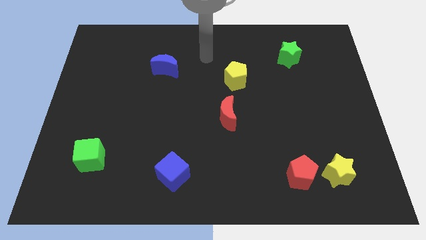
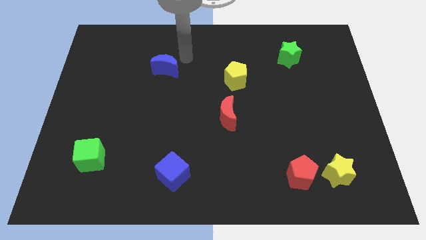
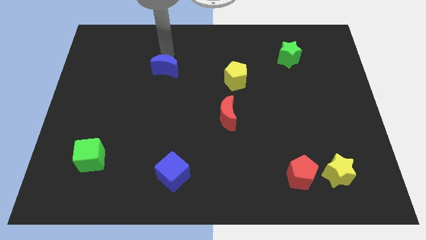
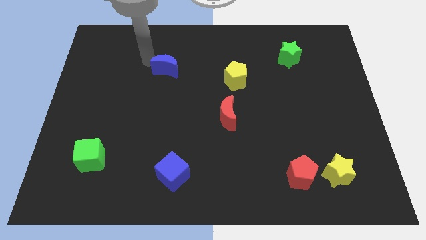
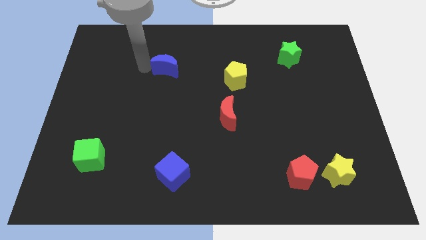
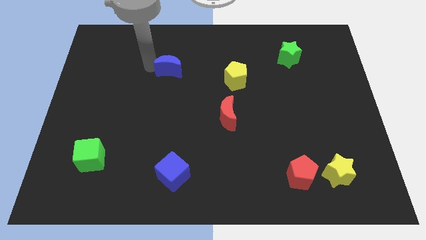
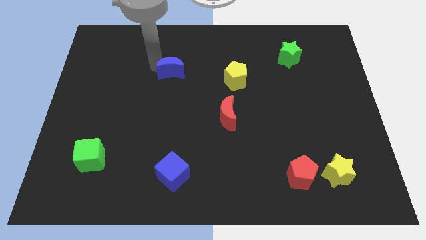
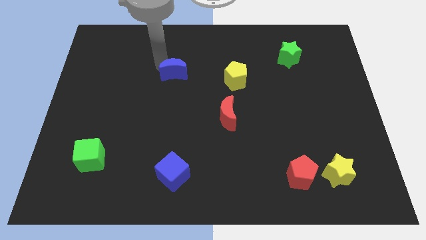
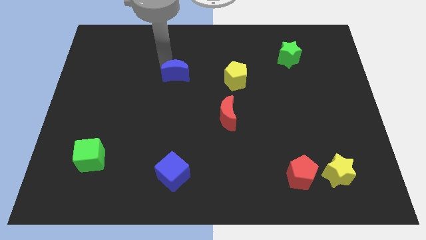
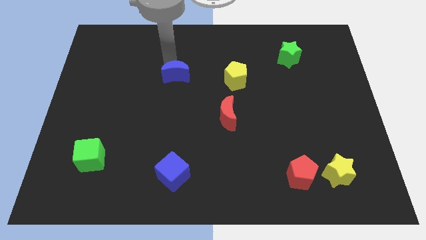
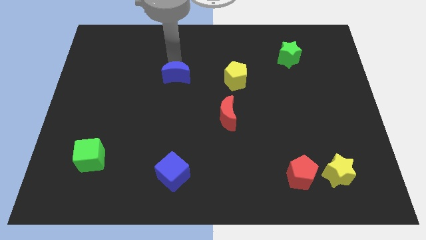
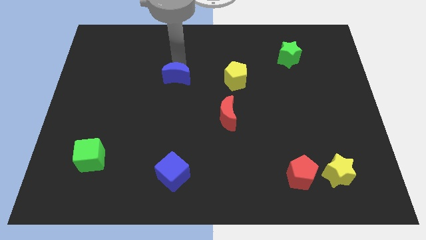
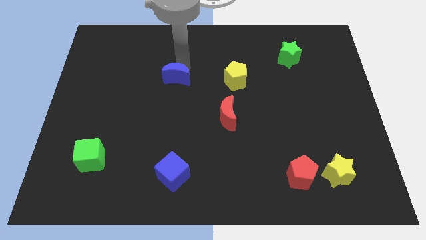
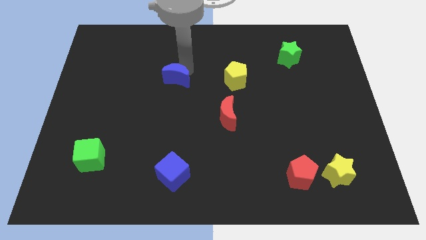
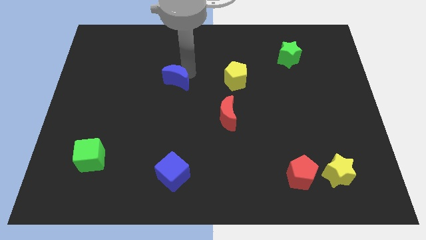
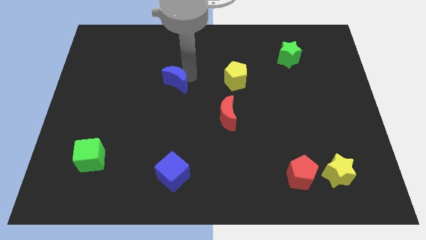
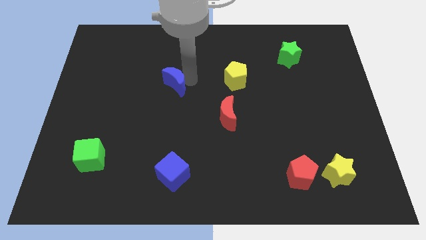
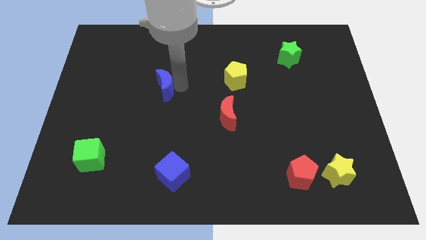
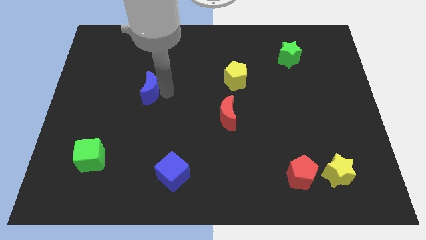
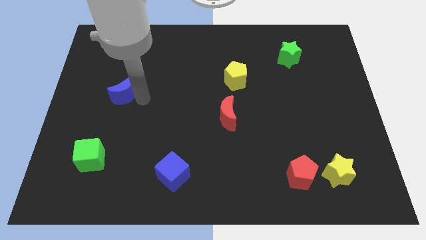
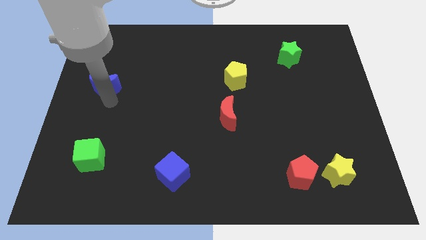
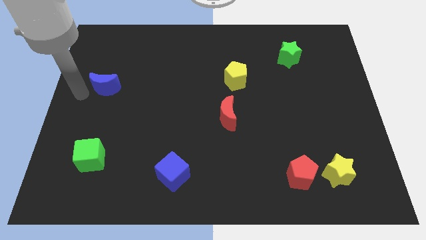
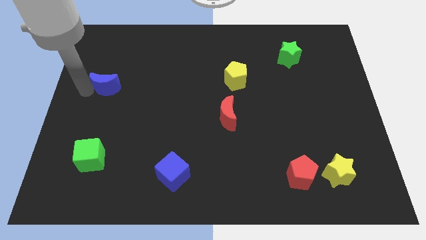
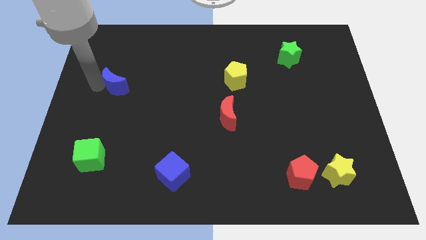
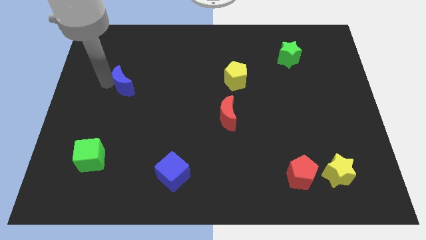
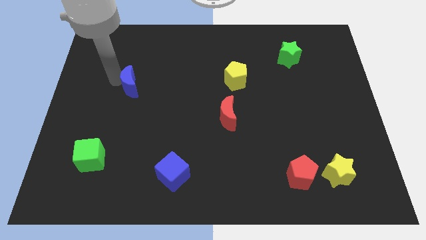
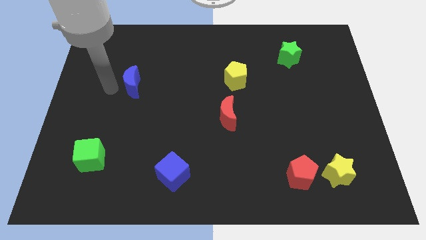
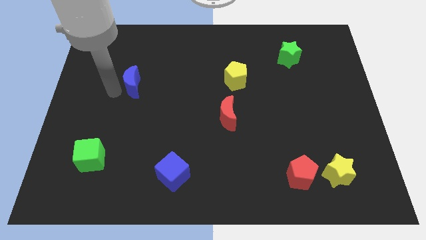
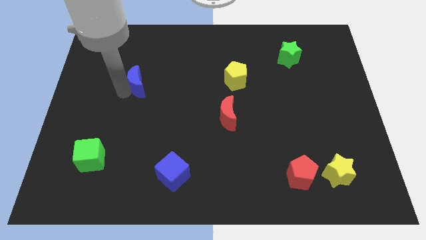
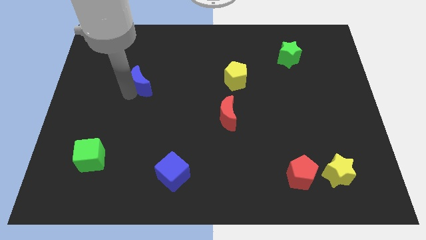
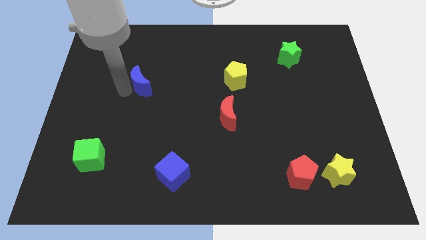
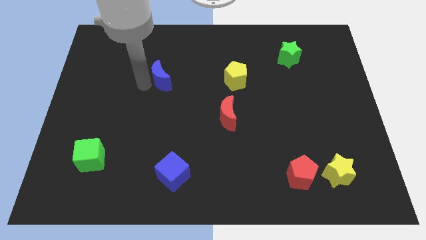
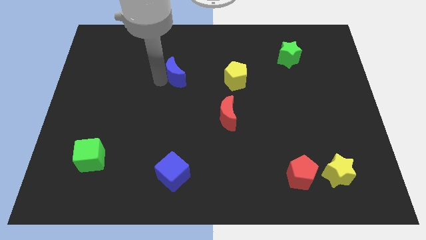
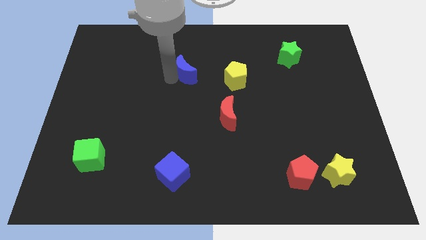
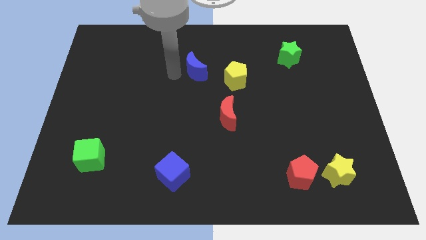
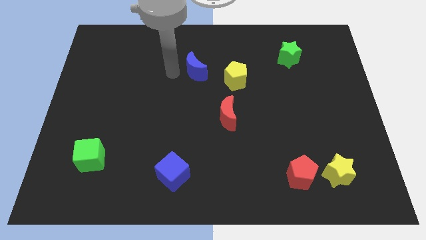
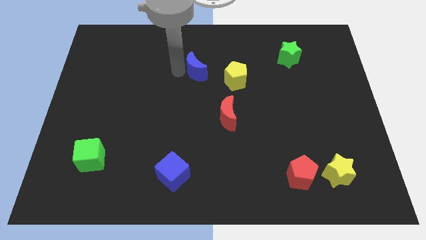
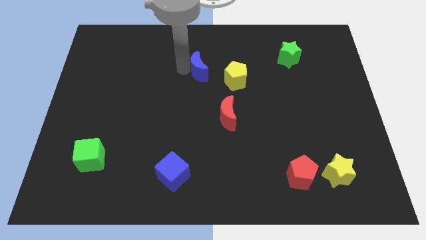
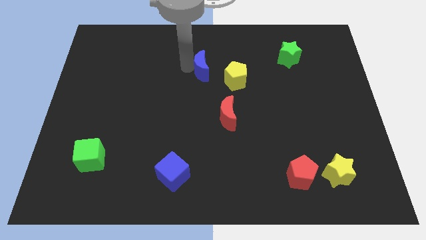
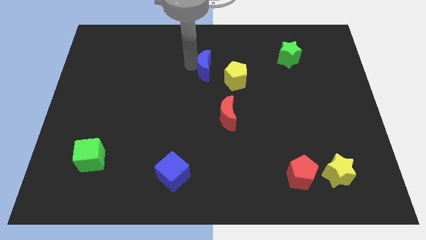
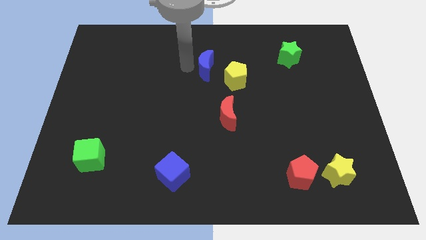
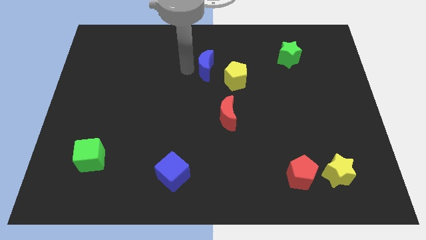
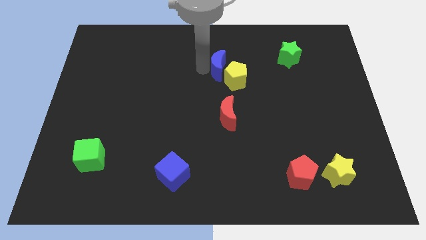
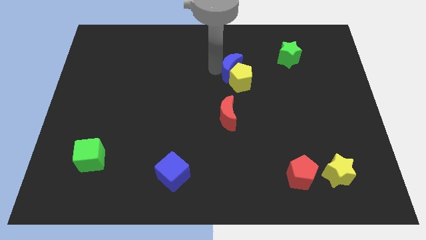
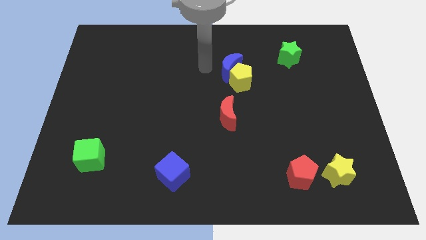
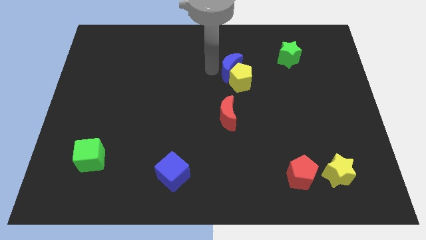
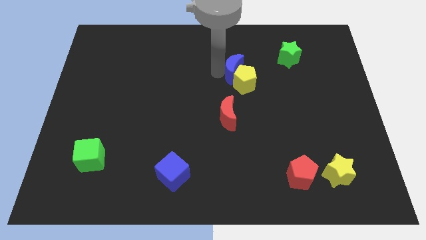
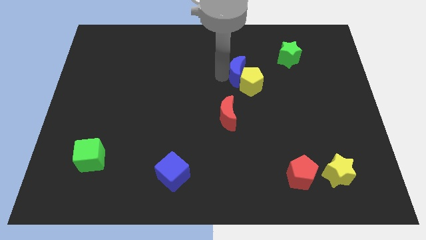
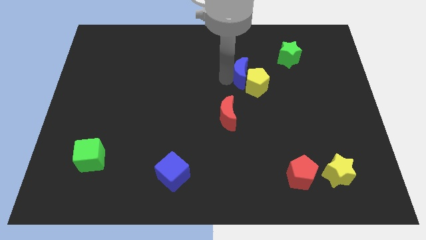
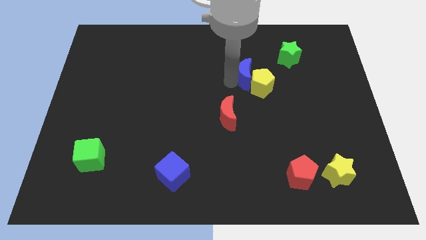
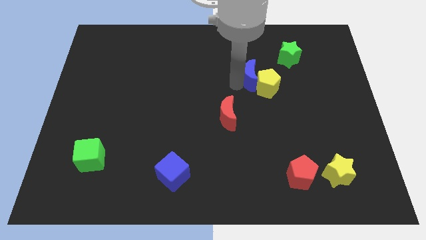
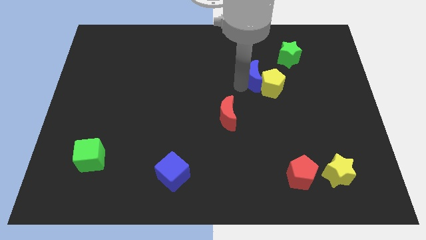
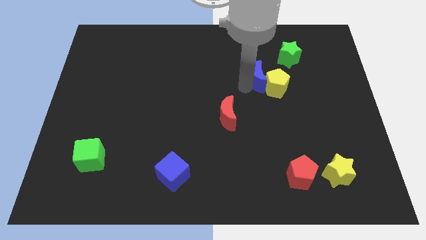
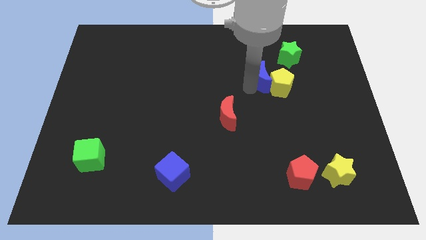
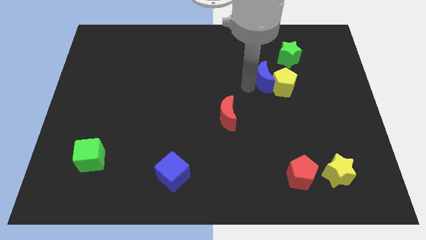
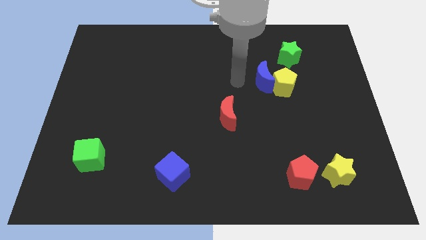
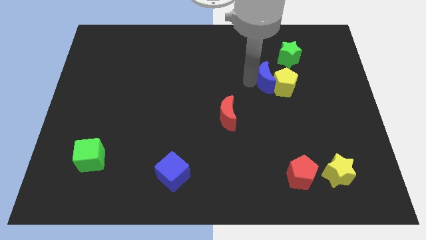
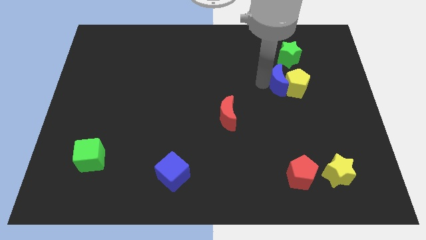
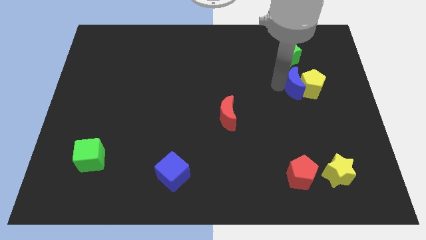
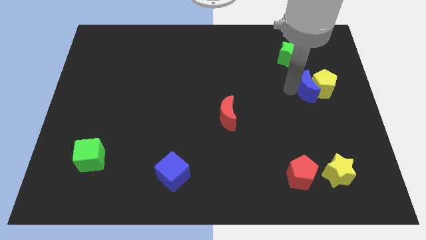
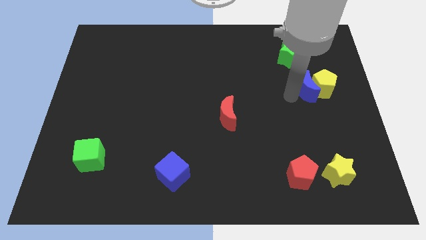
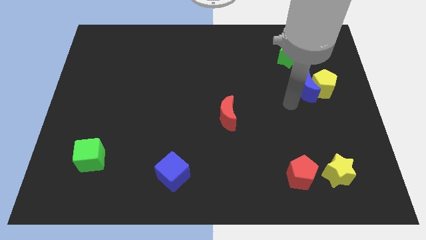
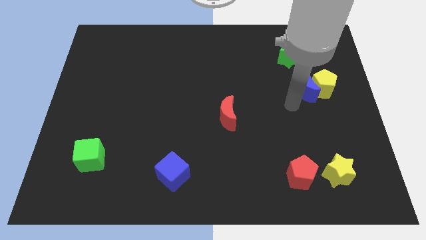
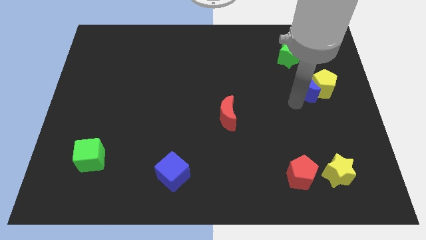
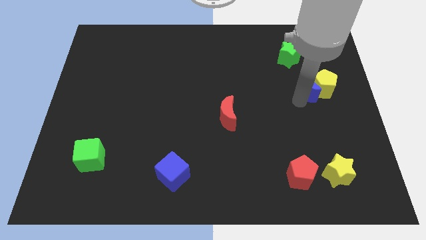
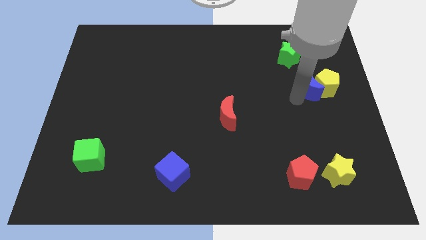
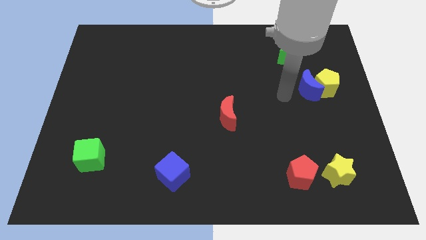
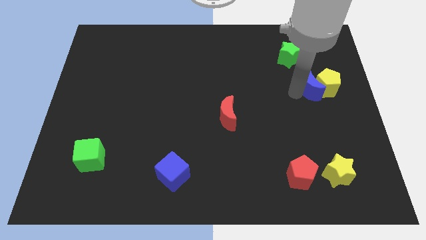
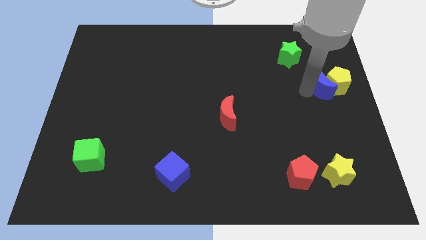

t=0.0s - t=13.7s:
put the blue moon to the right side
